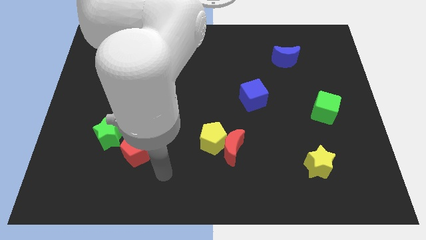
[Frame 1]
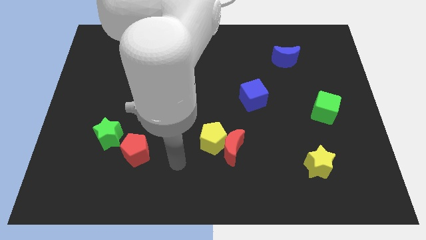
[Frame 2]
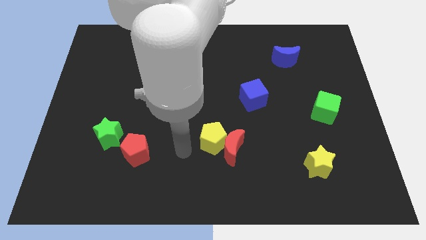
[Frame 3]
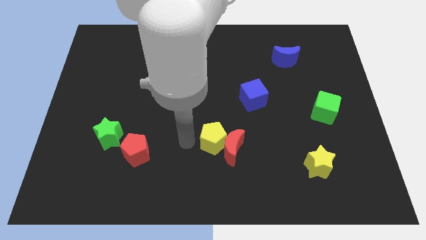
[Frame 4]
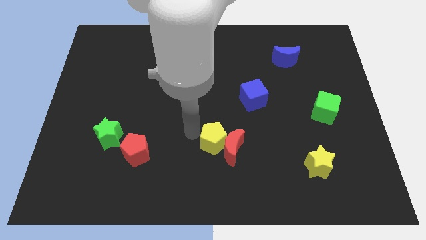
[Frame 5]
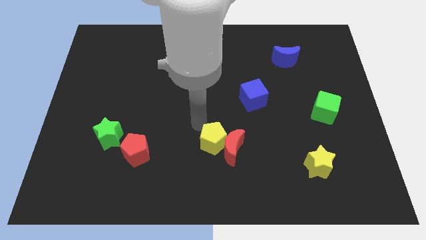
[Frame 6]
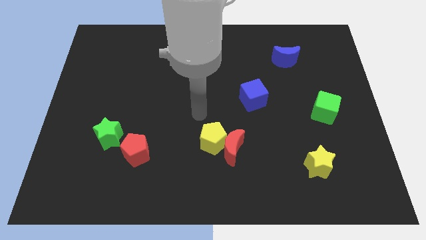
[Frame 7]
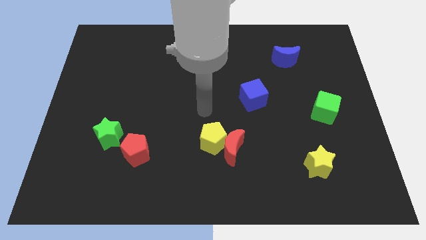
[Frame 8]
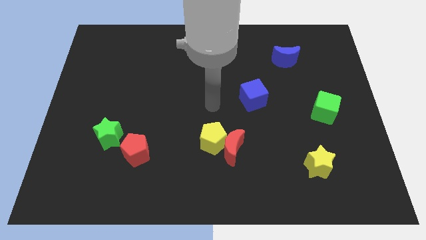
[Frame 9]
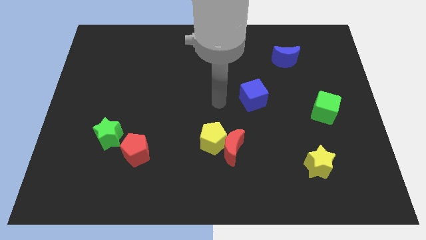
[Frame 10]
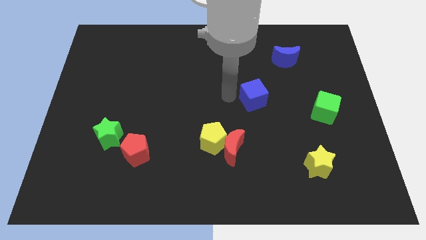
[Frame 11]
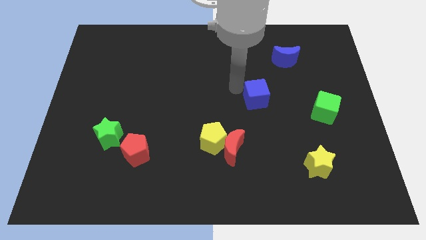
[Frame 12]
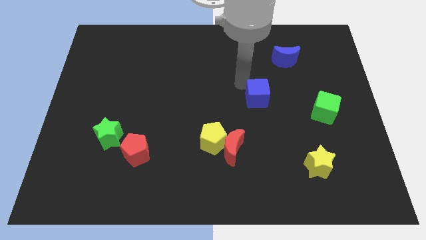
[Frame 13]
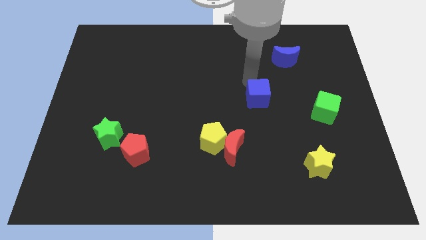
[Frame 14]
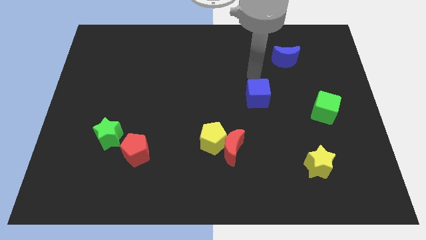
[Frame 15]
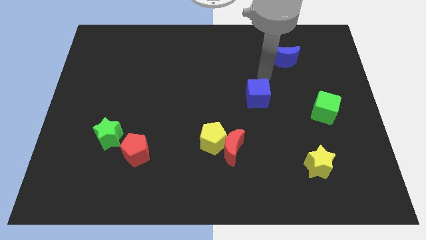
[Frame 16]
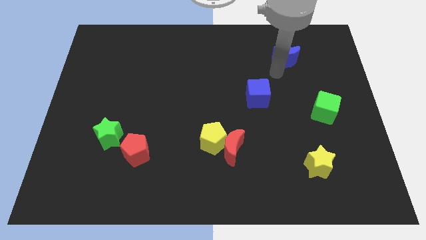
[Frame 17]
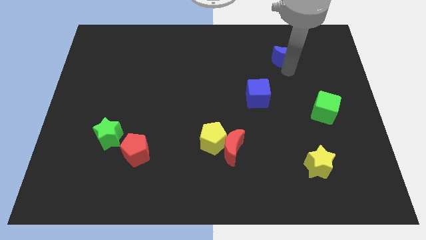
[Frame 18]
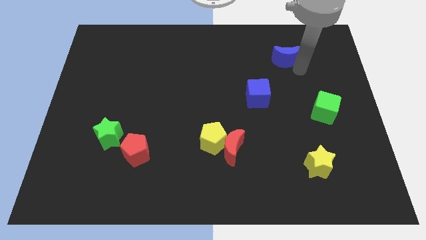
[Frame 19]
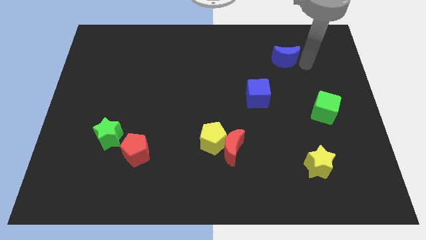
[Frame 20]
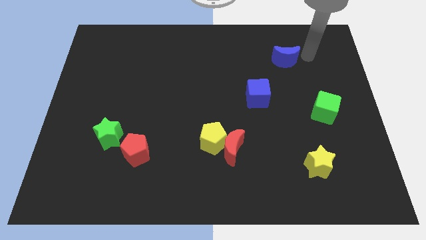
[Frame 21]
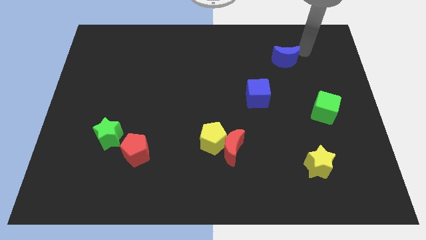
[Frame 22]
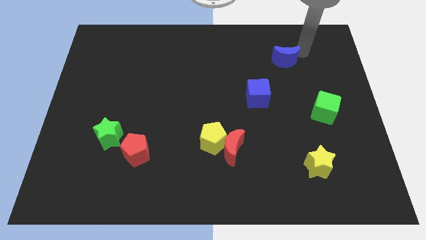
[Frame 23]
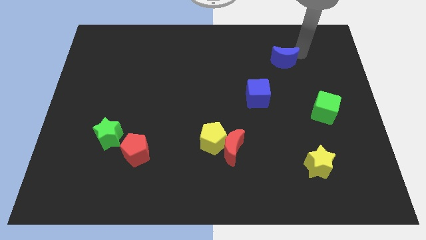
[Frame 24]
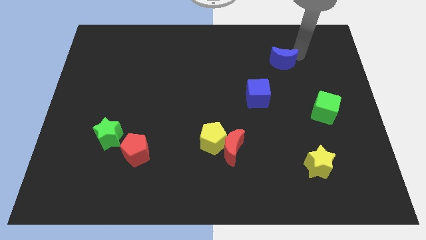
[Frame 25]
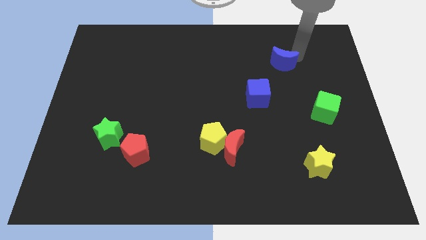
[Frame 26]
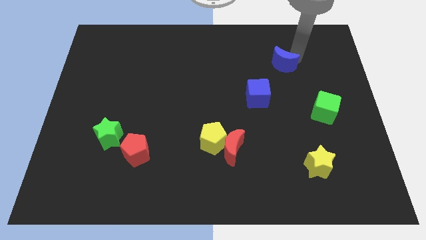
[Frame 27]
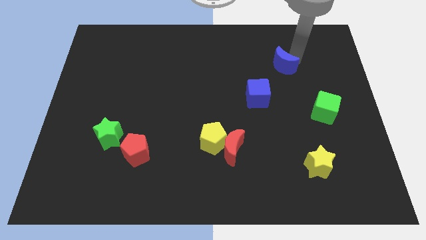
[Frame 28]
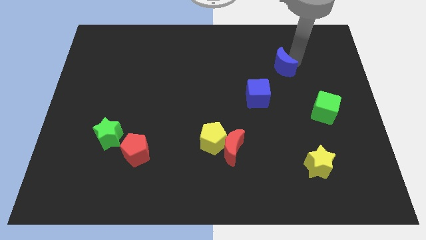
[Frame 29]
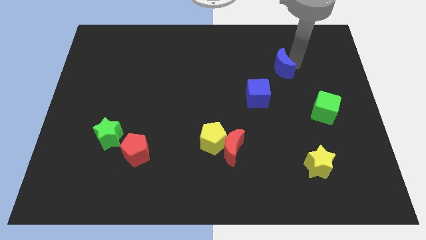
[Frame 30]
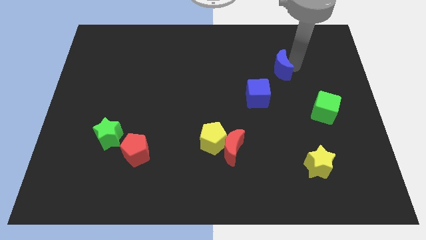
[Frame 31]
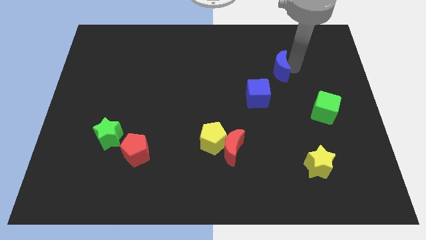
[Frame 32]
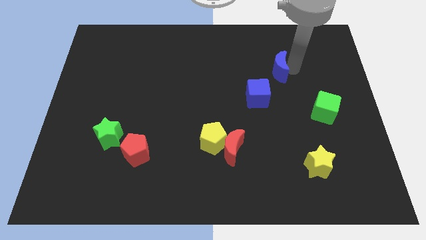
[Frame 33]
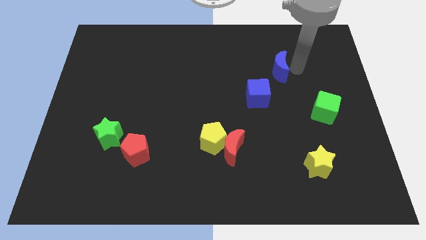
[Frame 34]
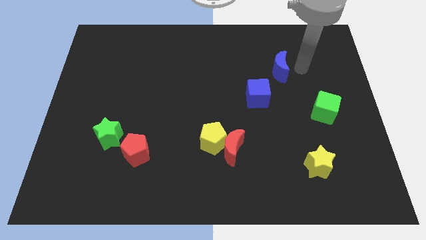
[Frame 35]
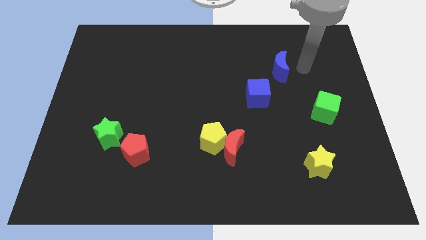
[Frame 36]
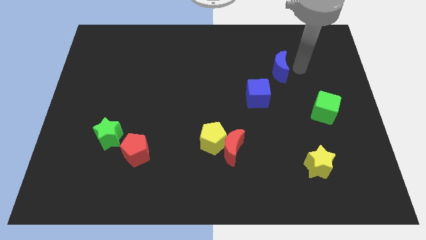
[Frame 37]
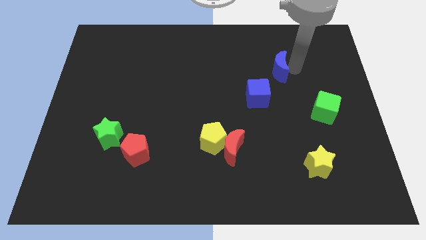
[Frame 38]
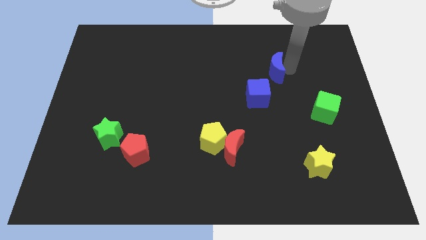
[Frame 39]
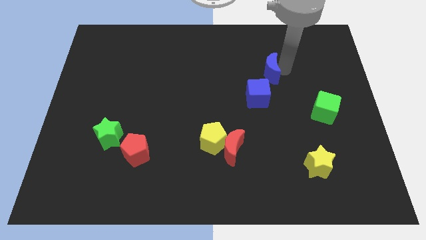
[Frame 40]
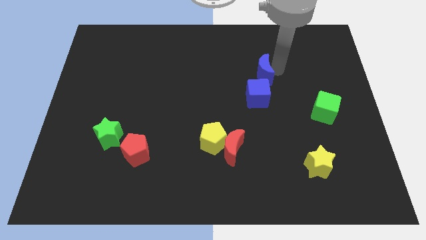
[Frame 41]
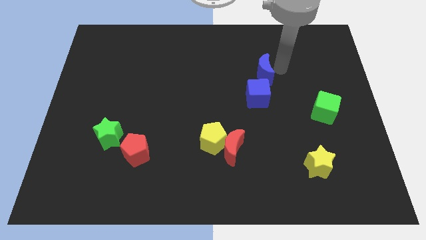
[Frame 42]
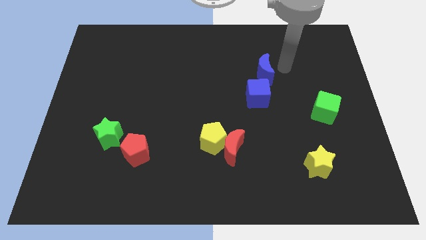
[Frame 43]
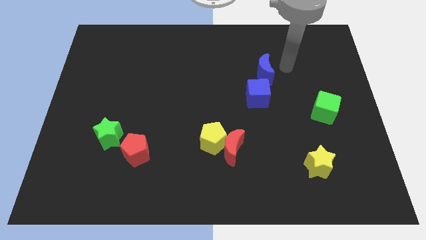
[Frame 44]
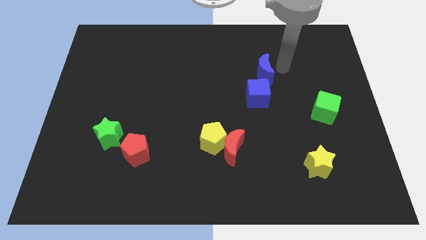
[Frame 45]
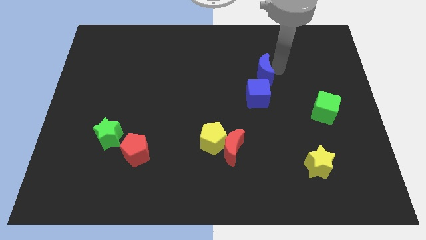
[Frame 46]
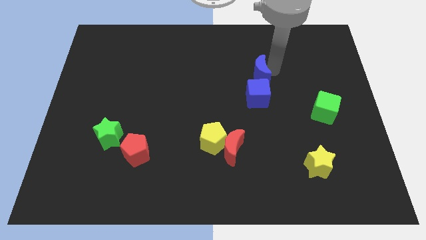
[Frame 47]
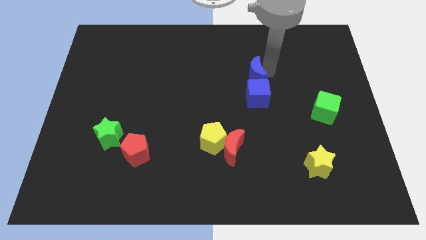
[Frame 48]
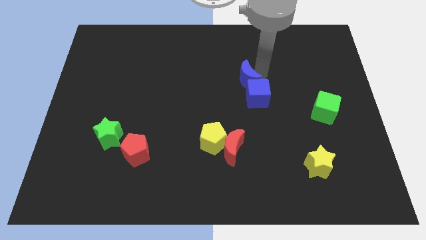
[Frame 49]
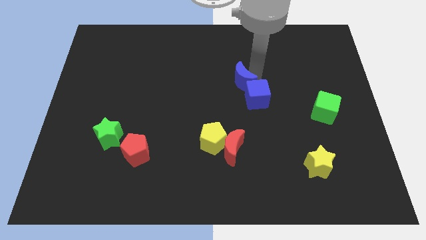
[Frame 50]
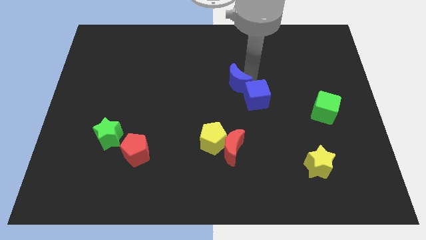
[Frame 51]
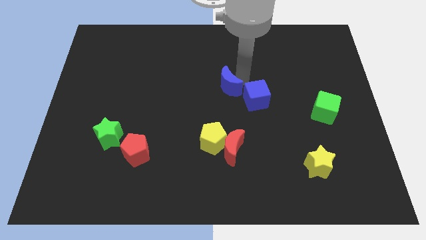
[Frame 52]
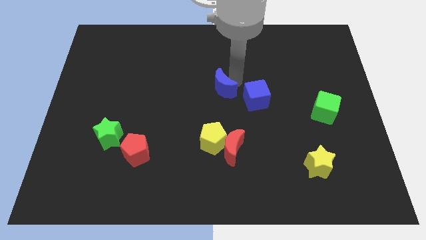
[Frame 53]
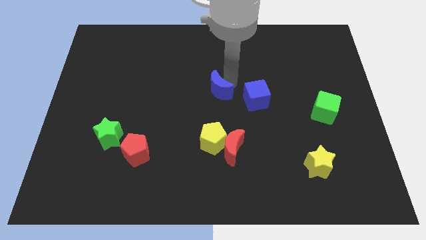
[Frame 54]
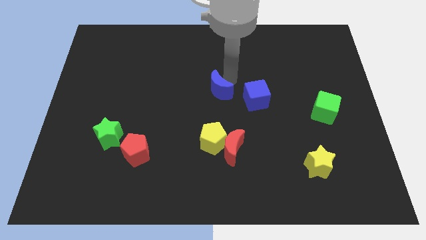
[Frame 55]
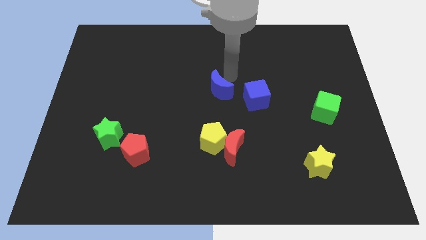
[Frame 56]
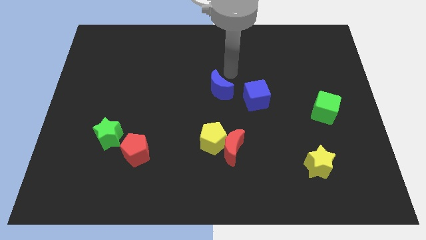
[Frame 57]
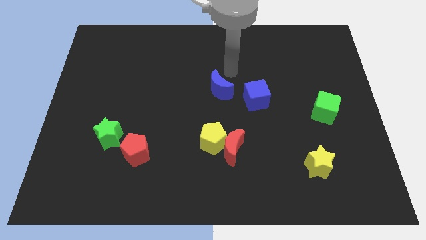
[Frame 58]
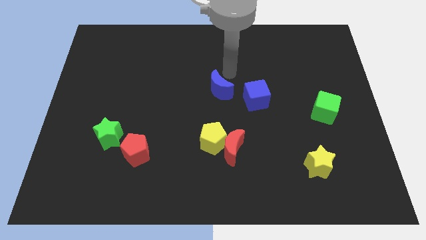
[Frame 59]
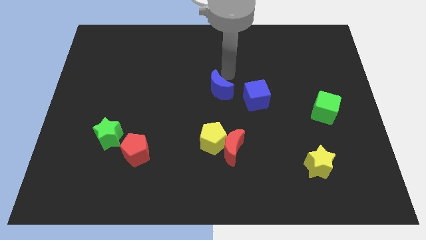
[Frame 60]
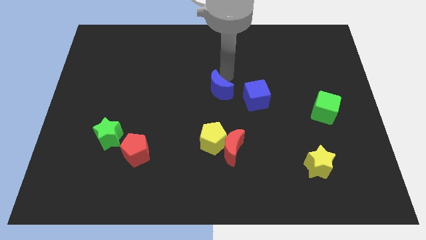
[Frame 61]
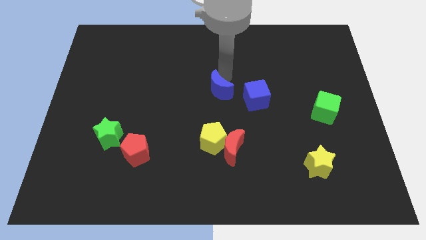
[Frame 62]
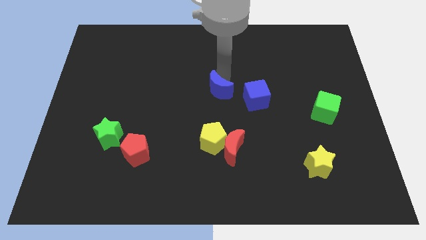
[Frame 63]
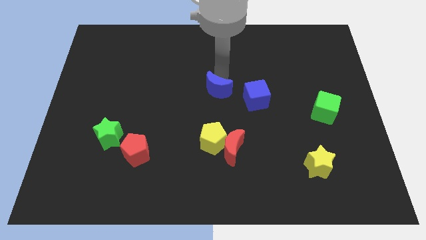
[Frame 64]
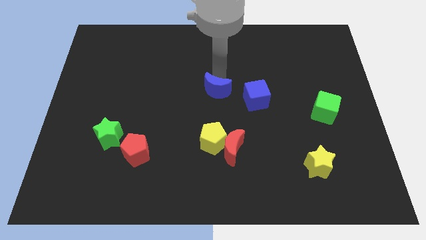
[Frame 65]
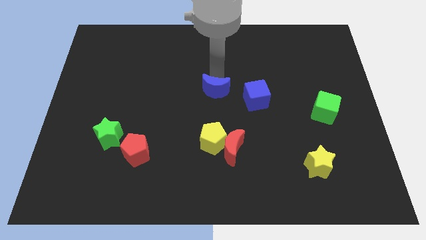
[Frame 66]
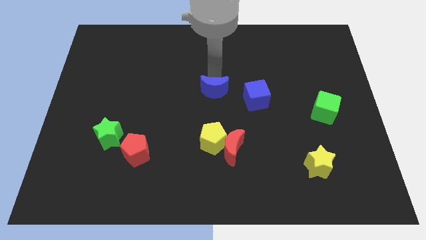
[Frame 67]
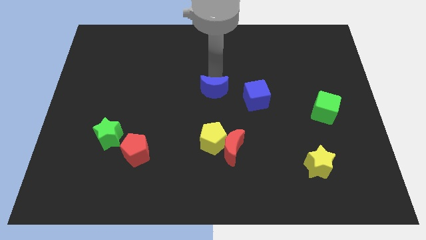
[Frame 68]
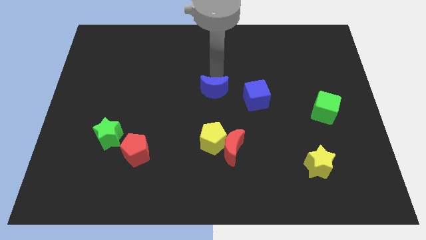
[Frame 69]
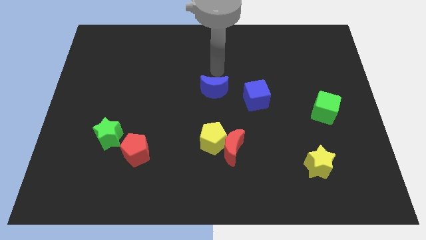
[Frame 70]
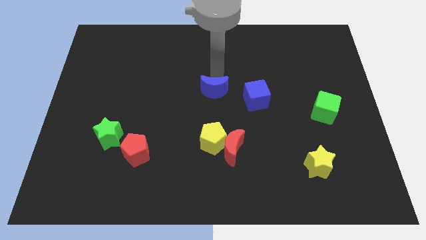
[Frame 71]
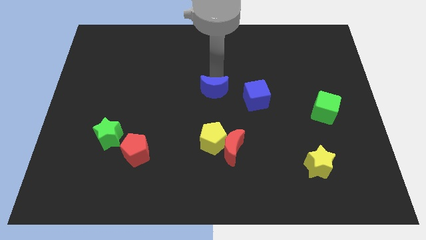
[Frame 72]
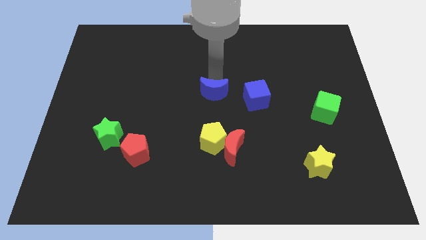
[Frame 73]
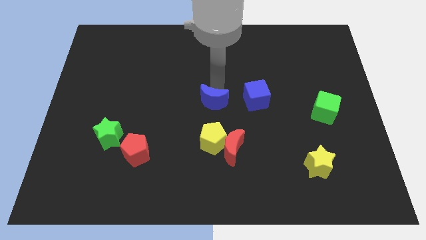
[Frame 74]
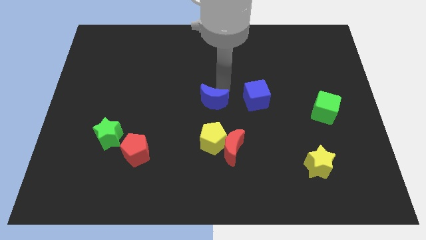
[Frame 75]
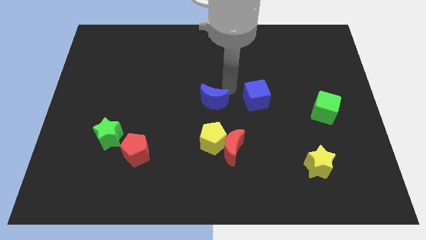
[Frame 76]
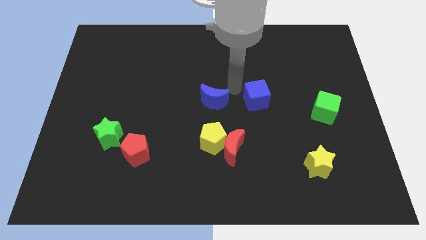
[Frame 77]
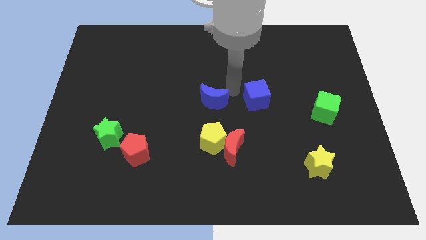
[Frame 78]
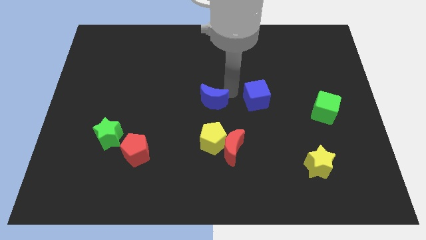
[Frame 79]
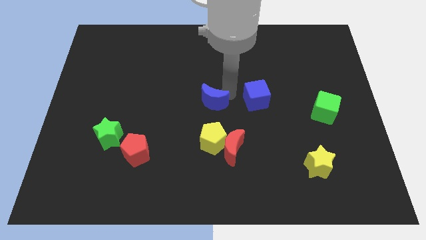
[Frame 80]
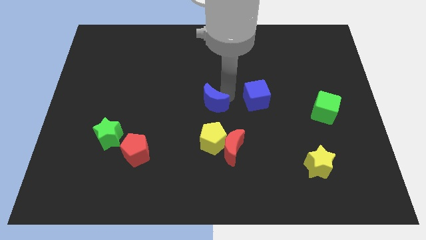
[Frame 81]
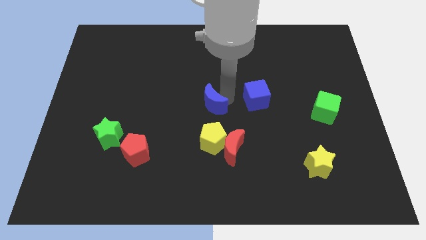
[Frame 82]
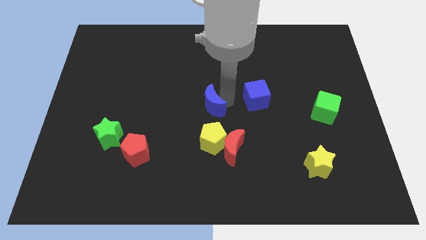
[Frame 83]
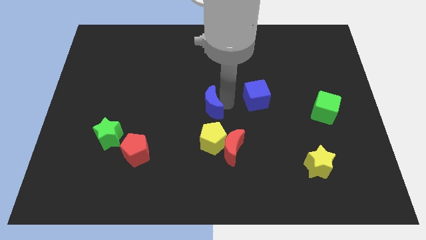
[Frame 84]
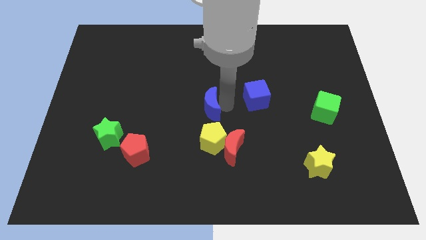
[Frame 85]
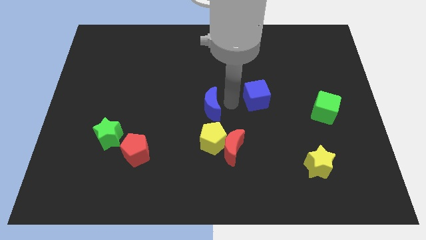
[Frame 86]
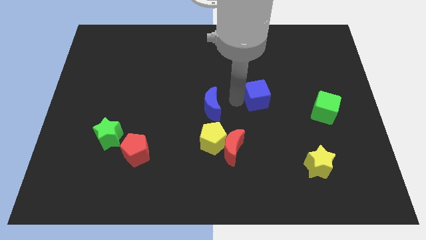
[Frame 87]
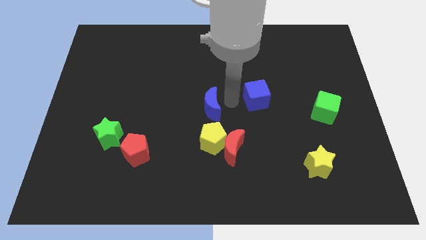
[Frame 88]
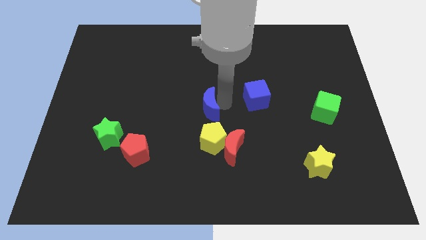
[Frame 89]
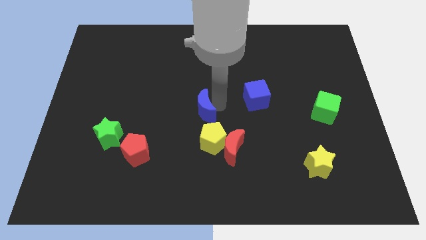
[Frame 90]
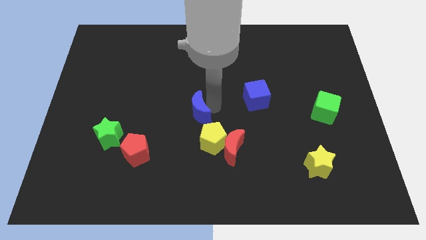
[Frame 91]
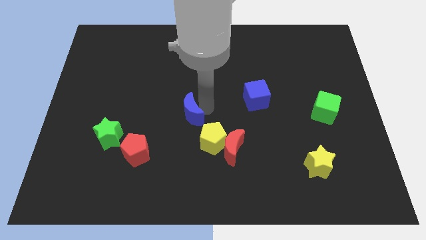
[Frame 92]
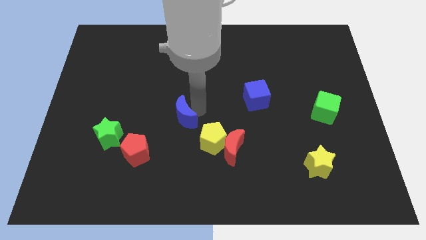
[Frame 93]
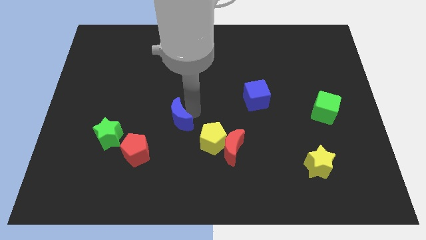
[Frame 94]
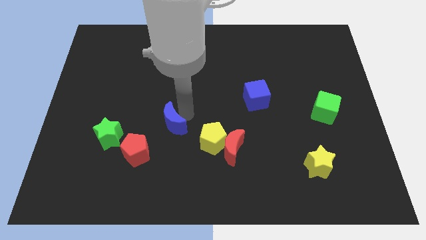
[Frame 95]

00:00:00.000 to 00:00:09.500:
put the blue moon to the right of the green star
